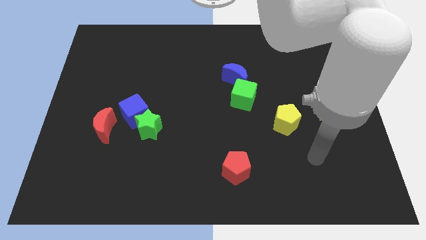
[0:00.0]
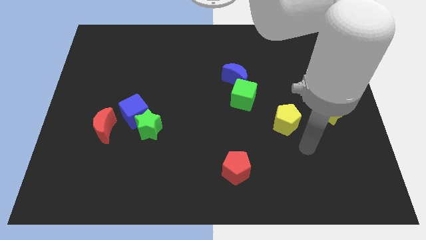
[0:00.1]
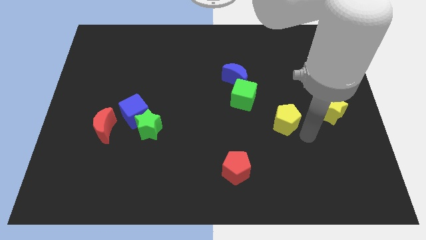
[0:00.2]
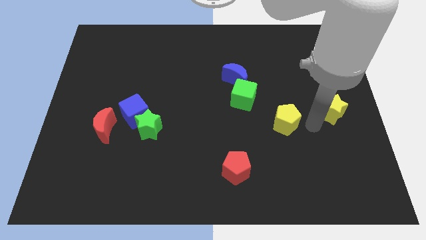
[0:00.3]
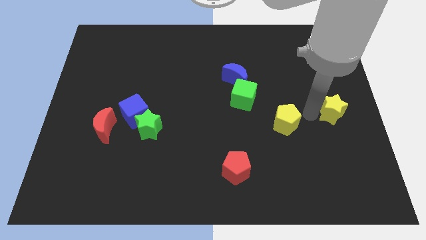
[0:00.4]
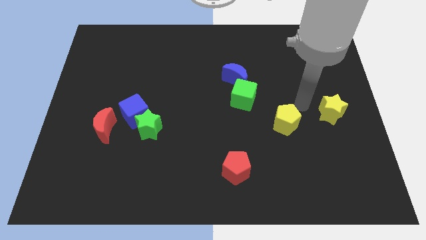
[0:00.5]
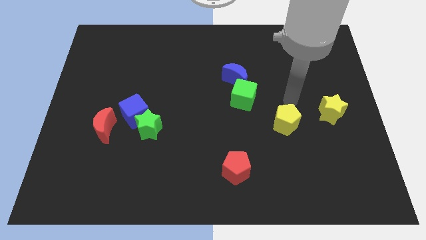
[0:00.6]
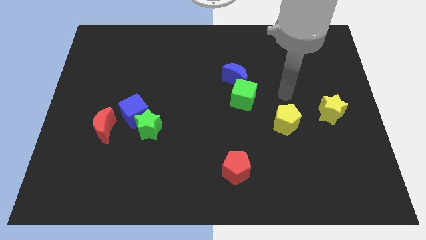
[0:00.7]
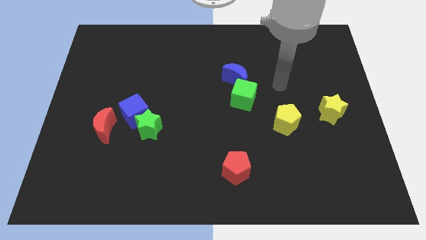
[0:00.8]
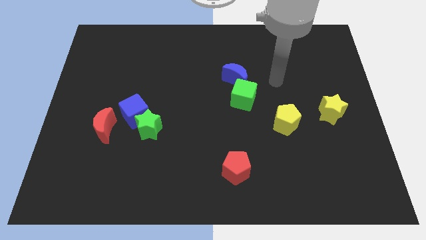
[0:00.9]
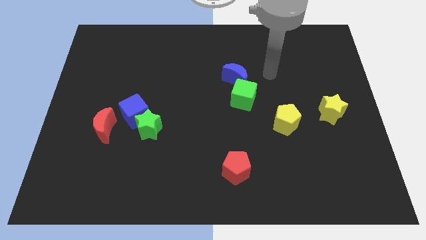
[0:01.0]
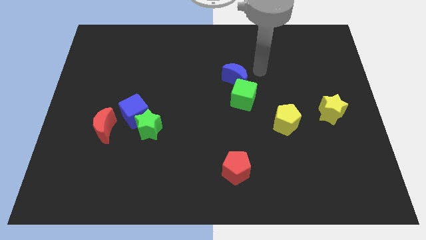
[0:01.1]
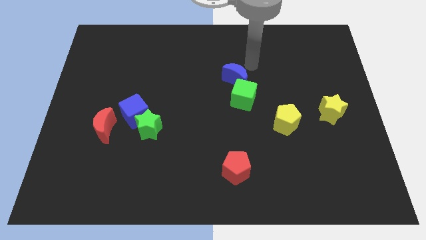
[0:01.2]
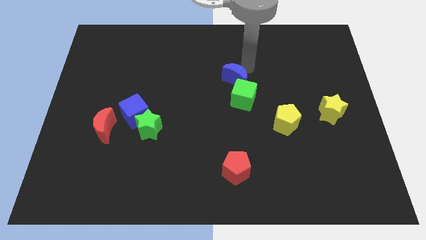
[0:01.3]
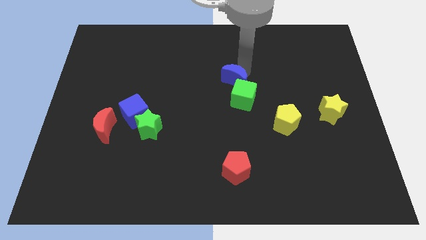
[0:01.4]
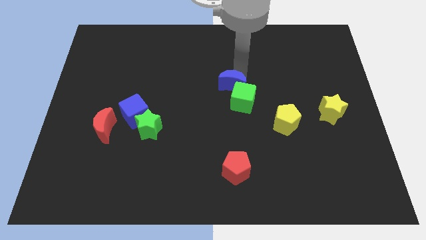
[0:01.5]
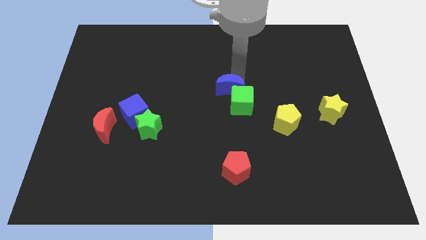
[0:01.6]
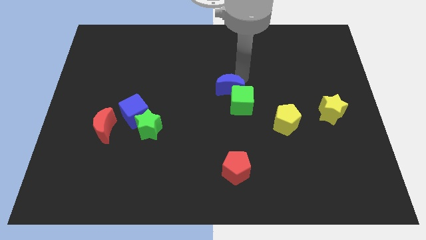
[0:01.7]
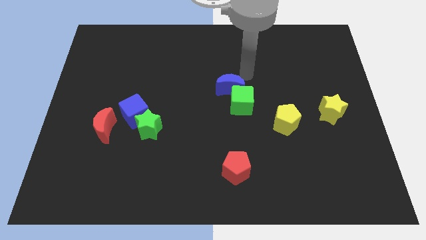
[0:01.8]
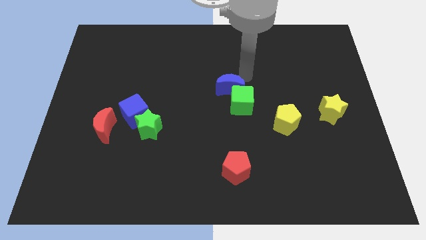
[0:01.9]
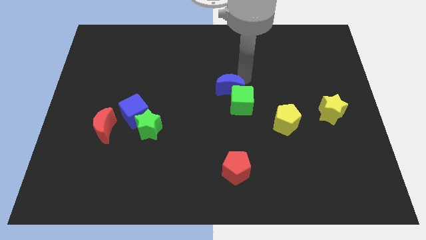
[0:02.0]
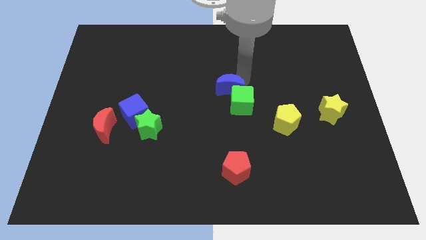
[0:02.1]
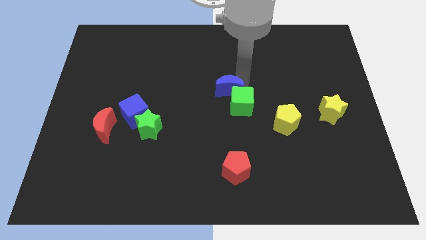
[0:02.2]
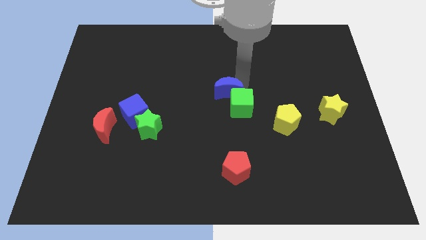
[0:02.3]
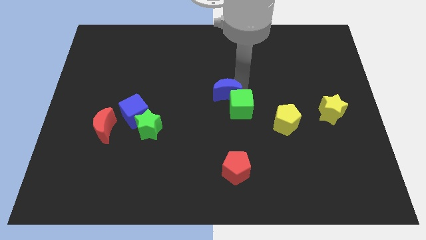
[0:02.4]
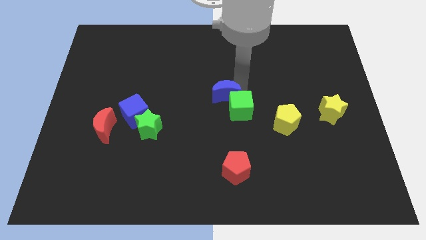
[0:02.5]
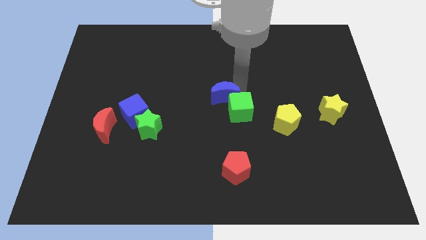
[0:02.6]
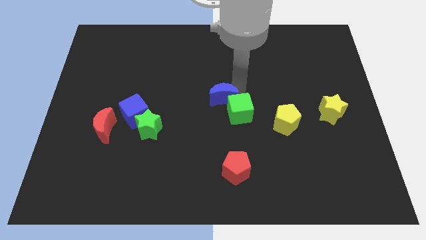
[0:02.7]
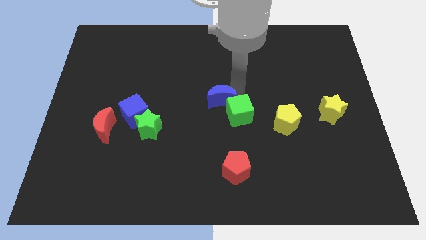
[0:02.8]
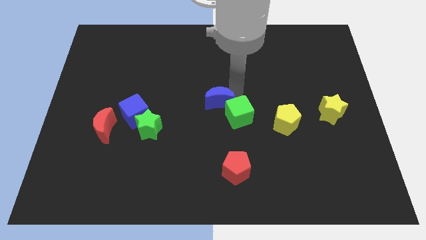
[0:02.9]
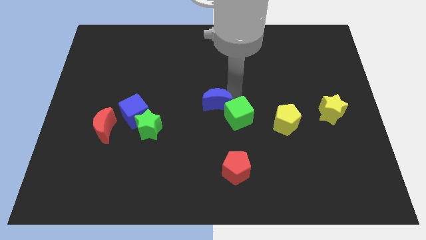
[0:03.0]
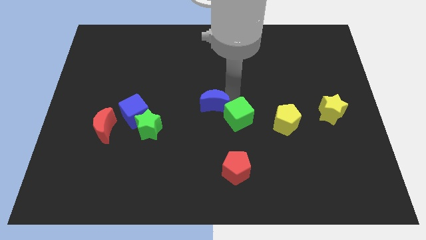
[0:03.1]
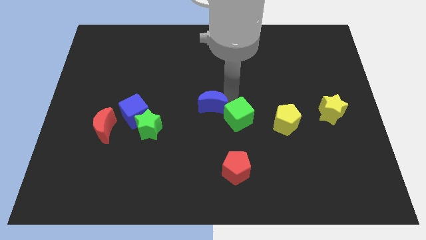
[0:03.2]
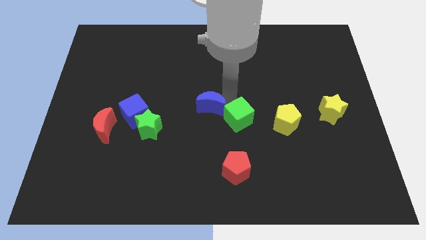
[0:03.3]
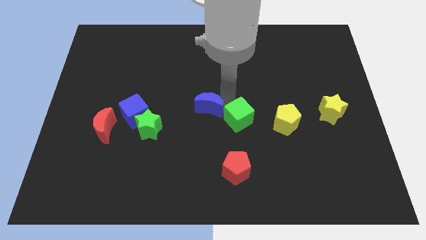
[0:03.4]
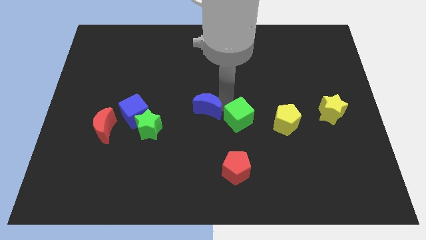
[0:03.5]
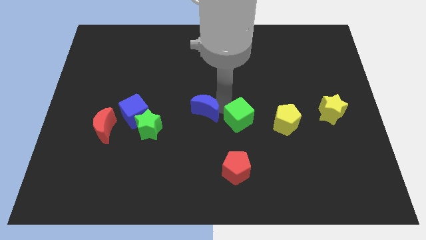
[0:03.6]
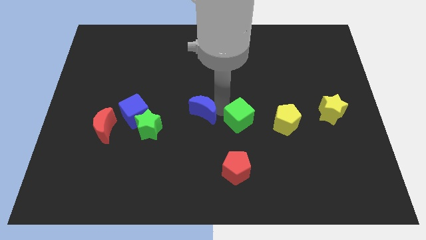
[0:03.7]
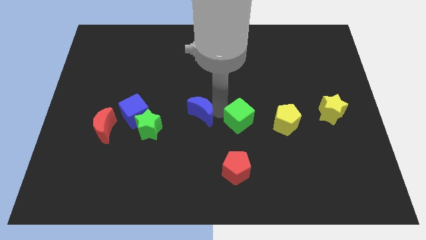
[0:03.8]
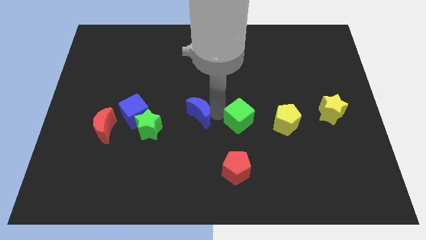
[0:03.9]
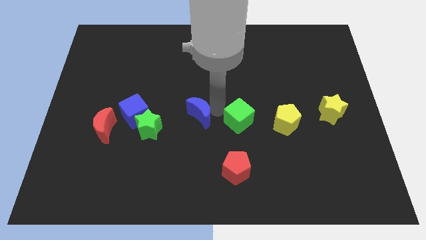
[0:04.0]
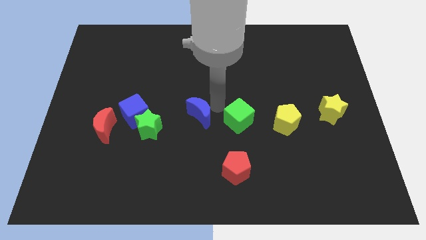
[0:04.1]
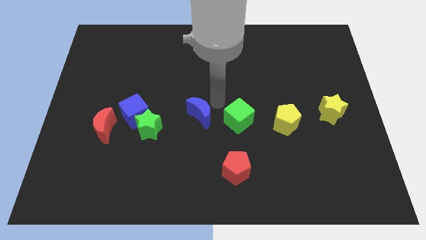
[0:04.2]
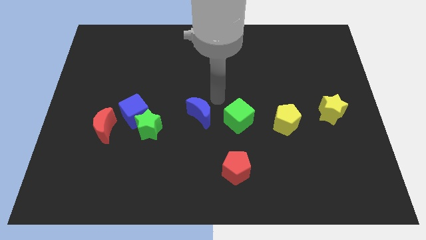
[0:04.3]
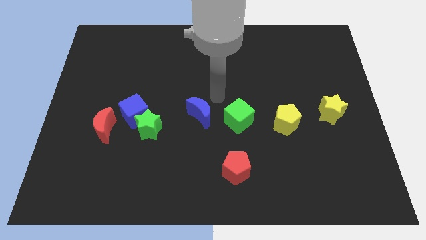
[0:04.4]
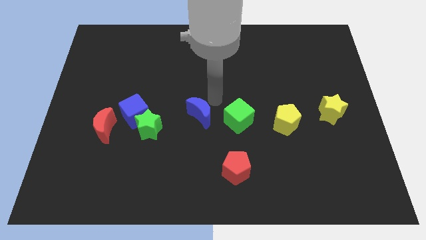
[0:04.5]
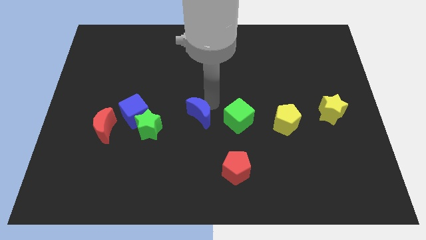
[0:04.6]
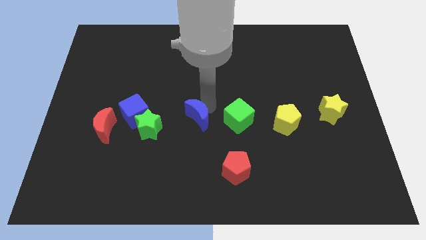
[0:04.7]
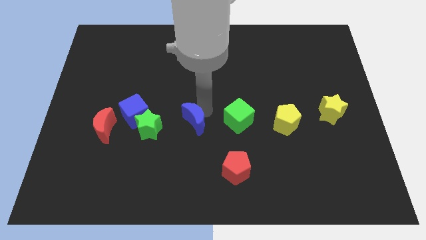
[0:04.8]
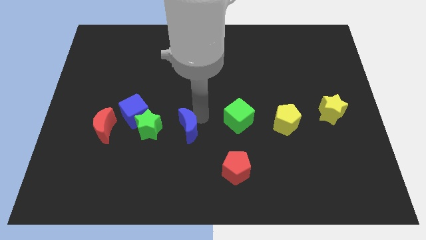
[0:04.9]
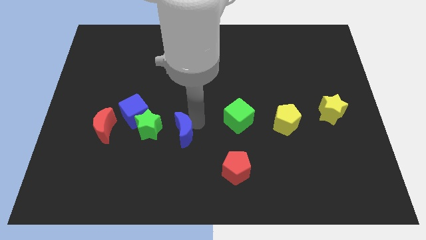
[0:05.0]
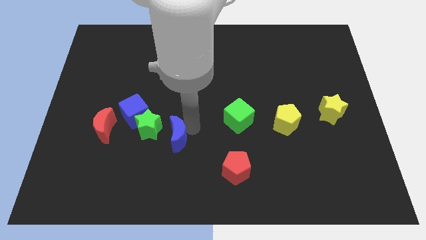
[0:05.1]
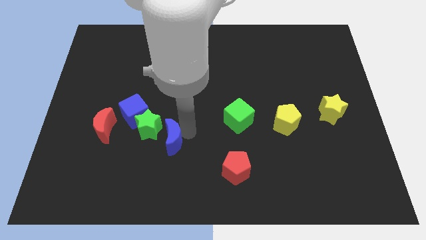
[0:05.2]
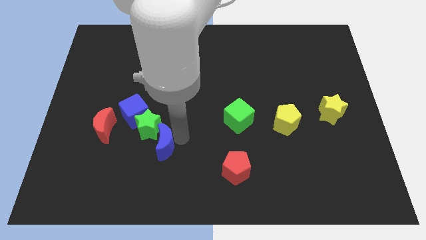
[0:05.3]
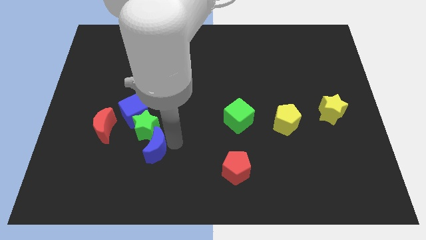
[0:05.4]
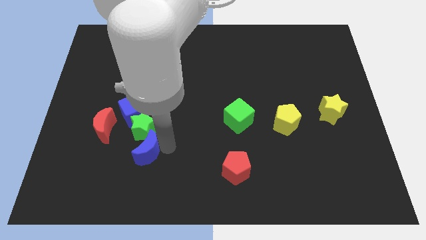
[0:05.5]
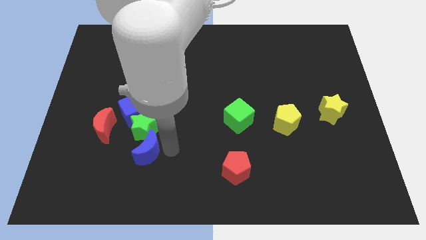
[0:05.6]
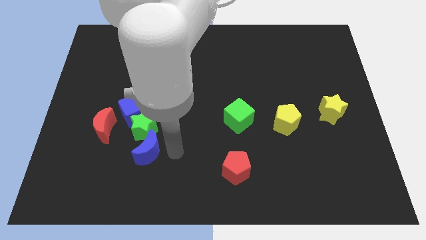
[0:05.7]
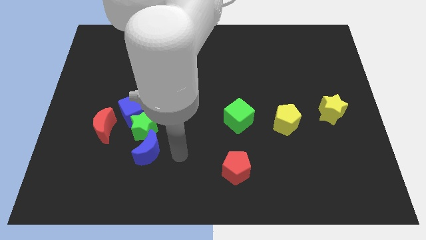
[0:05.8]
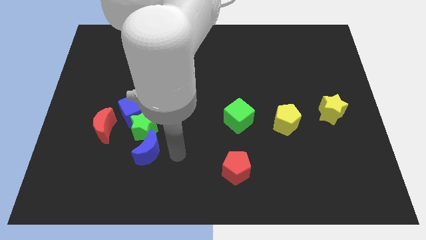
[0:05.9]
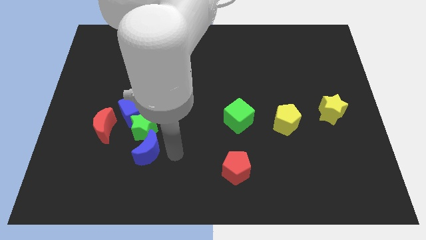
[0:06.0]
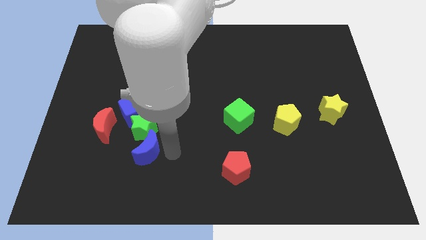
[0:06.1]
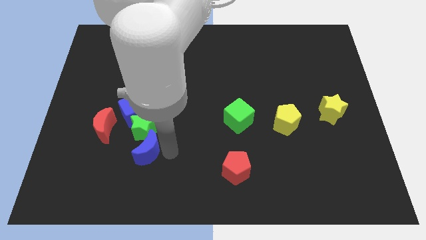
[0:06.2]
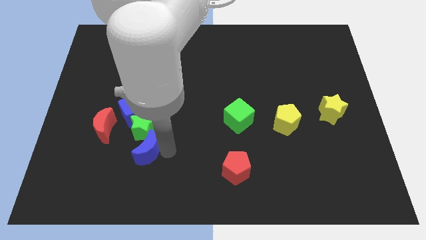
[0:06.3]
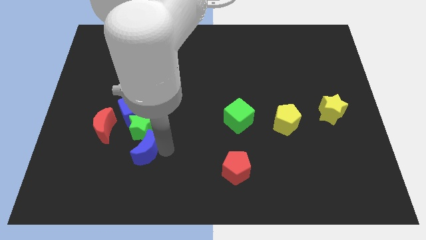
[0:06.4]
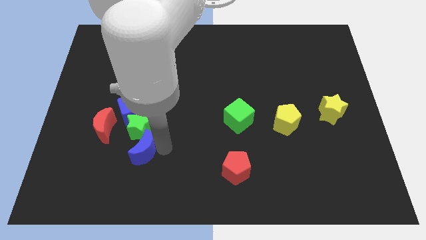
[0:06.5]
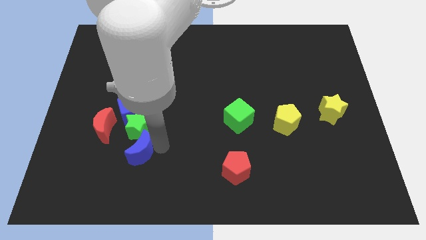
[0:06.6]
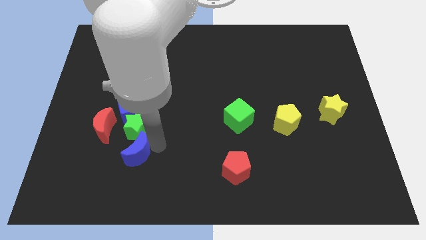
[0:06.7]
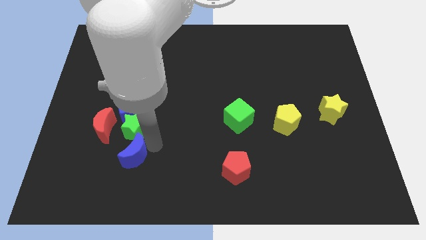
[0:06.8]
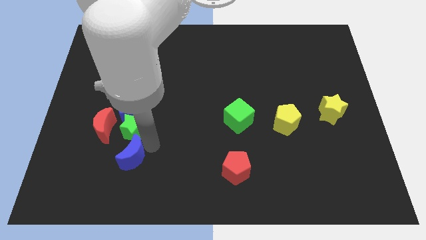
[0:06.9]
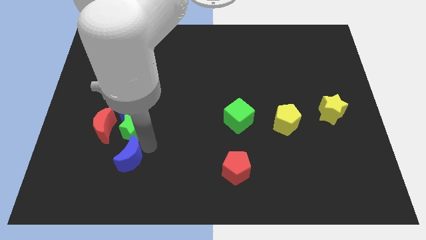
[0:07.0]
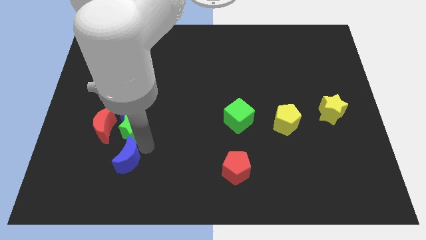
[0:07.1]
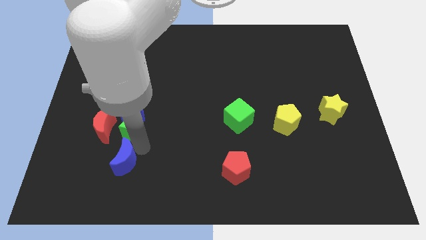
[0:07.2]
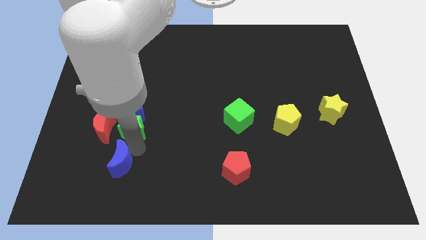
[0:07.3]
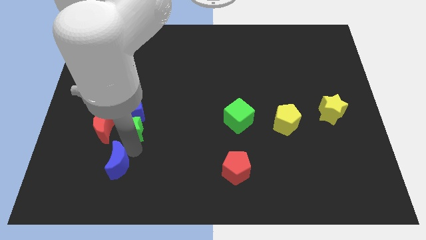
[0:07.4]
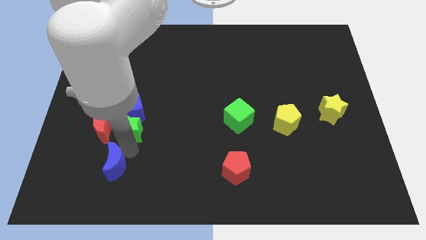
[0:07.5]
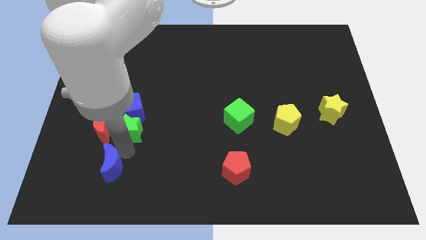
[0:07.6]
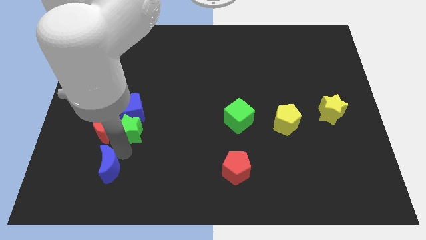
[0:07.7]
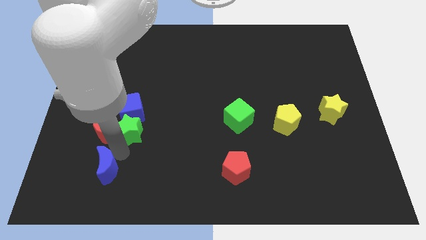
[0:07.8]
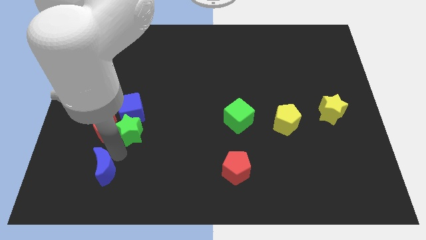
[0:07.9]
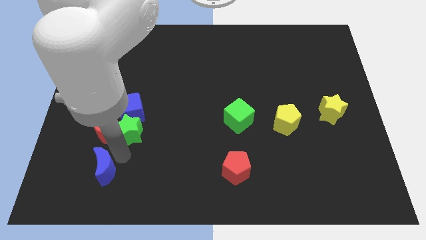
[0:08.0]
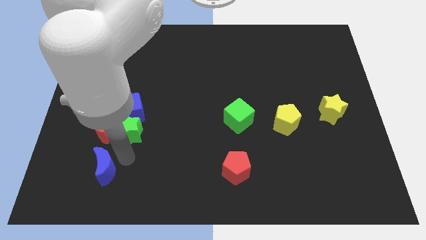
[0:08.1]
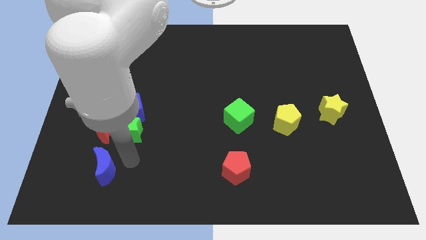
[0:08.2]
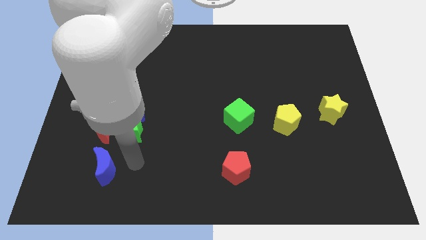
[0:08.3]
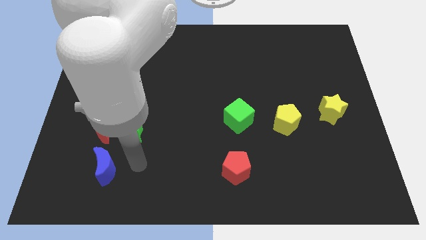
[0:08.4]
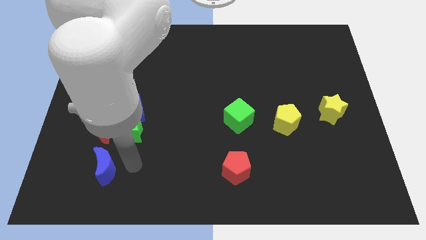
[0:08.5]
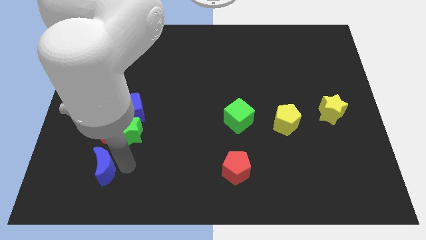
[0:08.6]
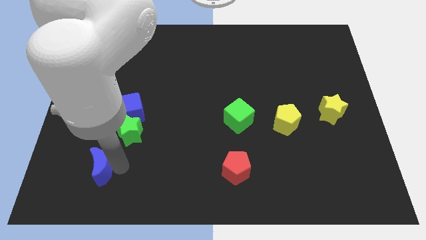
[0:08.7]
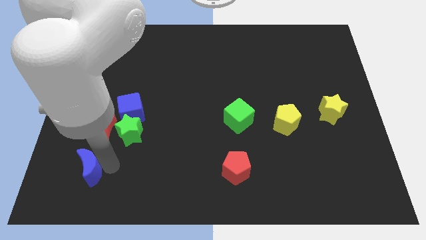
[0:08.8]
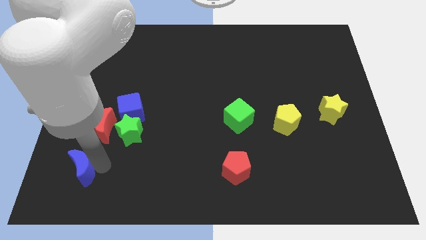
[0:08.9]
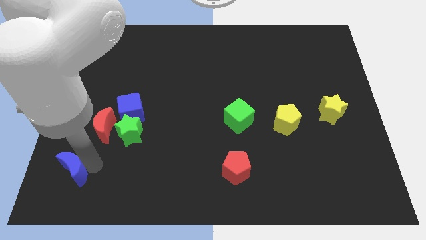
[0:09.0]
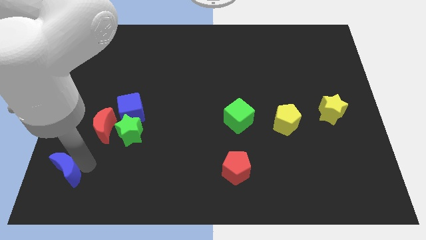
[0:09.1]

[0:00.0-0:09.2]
push the blue moon to the bottom left corner
